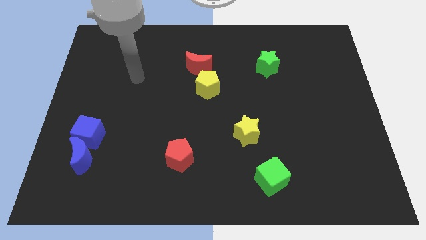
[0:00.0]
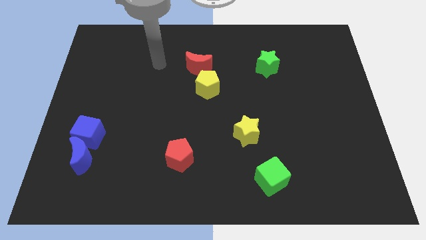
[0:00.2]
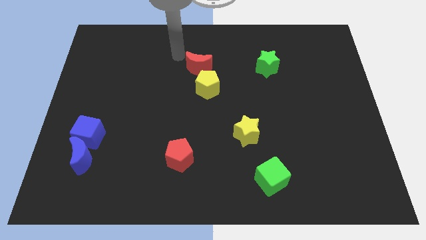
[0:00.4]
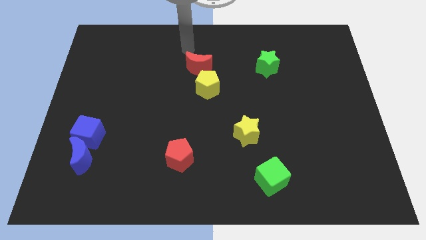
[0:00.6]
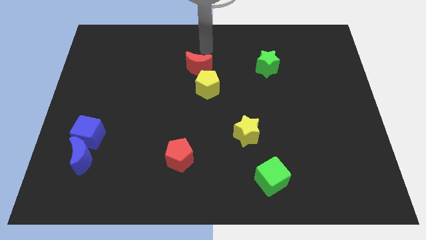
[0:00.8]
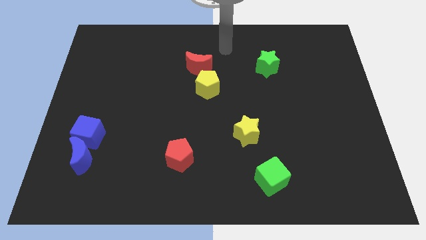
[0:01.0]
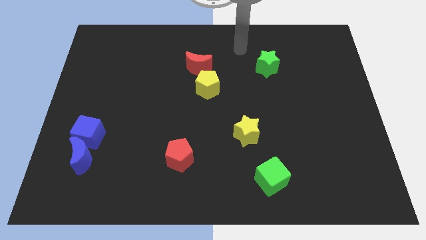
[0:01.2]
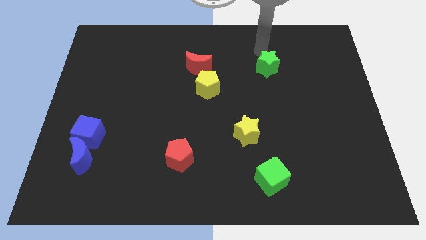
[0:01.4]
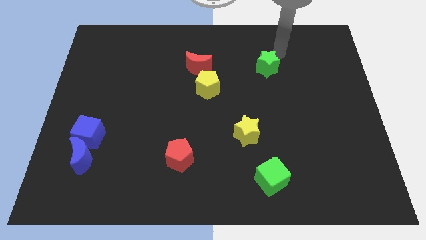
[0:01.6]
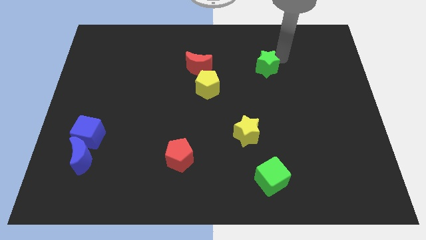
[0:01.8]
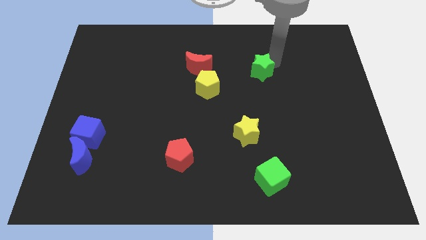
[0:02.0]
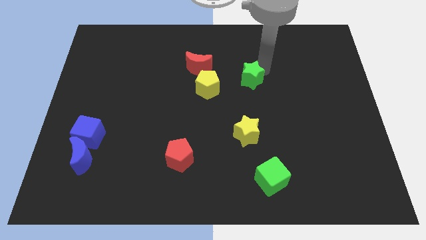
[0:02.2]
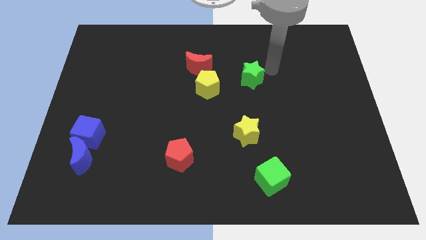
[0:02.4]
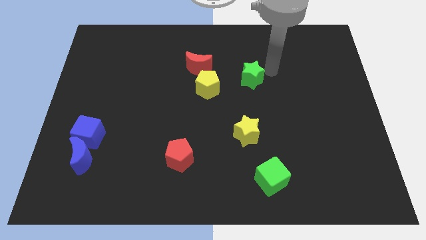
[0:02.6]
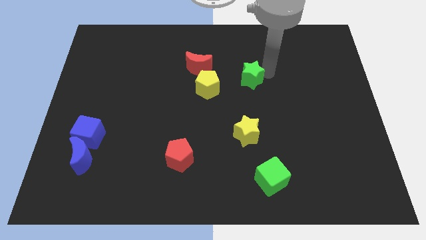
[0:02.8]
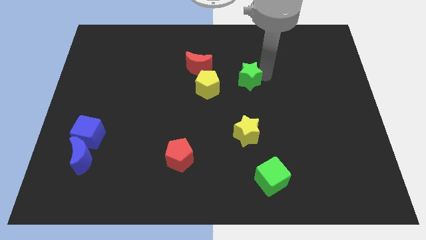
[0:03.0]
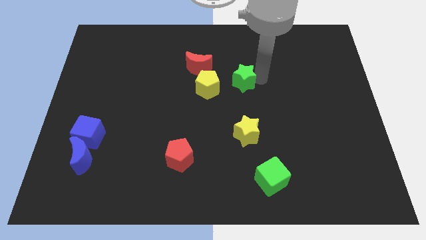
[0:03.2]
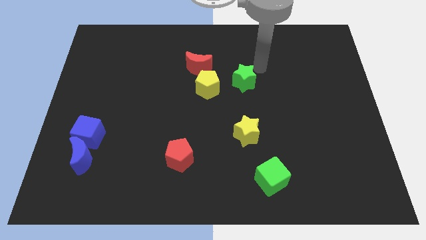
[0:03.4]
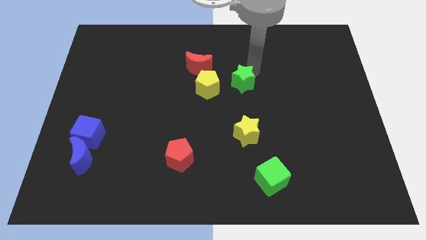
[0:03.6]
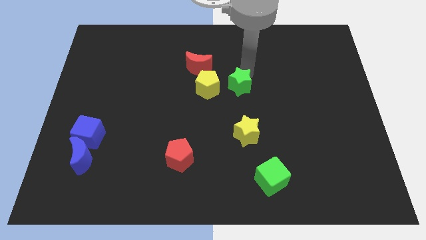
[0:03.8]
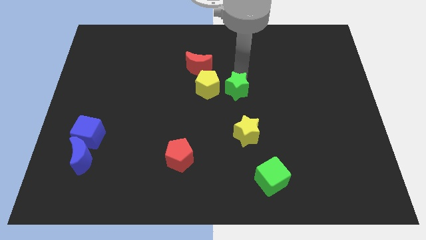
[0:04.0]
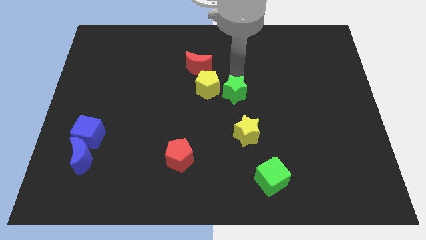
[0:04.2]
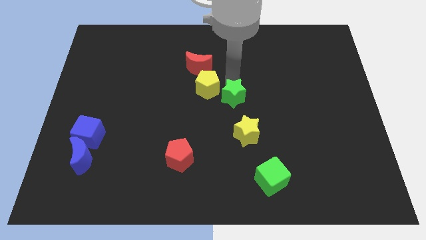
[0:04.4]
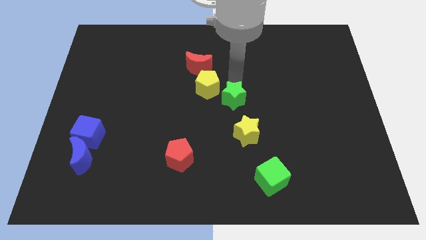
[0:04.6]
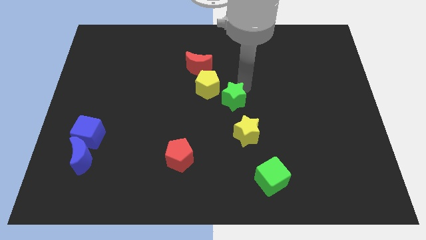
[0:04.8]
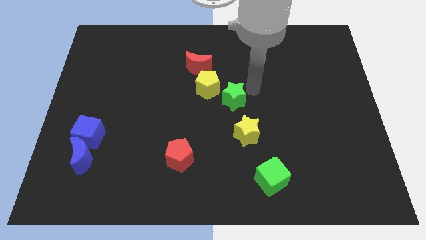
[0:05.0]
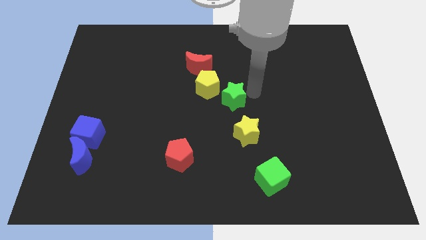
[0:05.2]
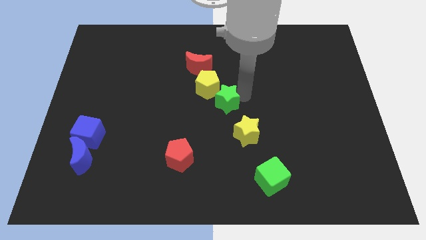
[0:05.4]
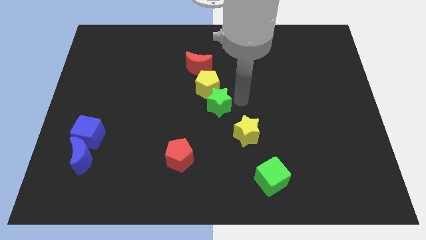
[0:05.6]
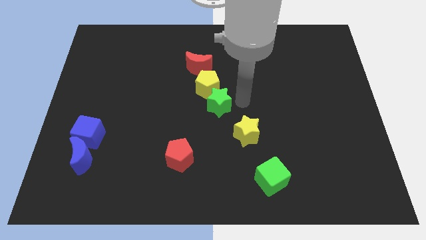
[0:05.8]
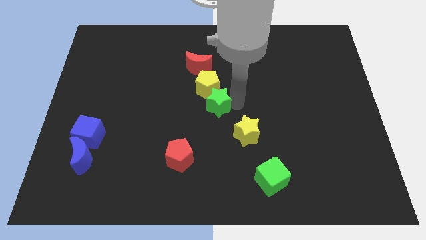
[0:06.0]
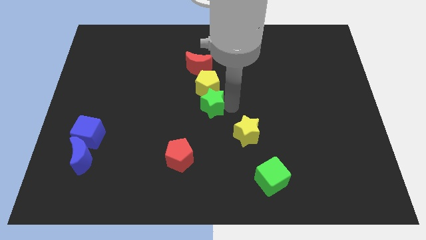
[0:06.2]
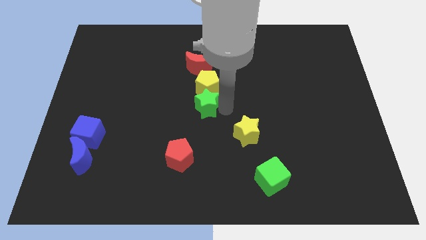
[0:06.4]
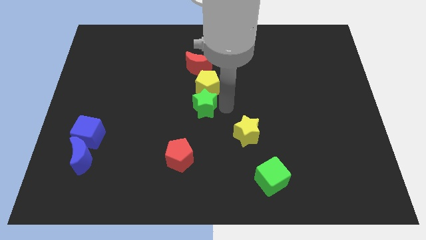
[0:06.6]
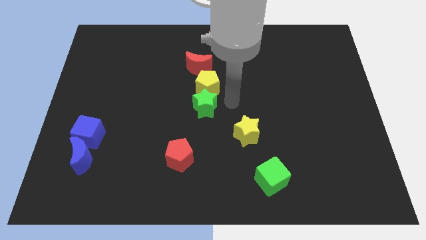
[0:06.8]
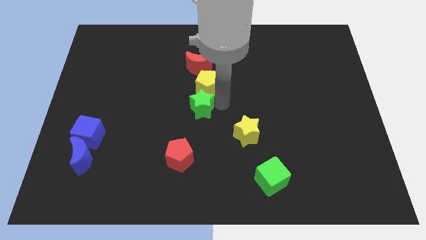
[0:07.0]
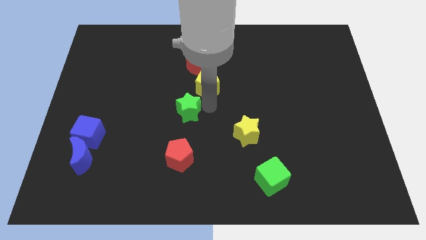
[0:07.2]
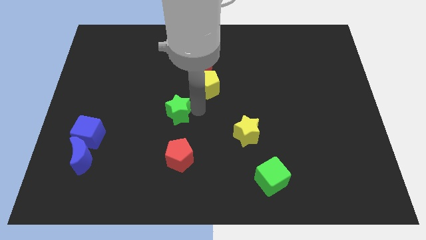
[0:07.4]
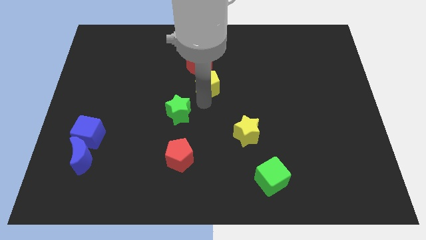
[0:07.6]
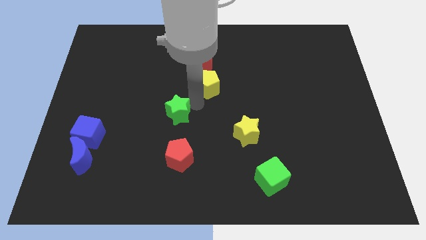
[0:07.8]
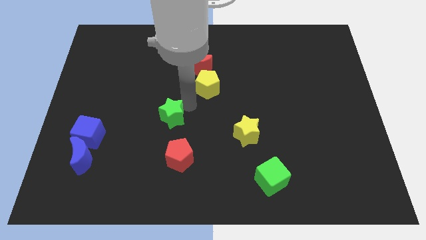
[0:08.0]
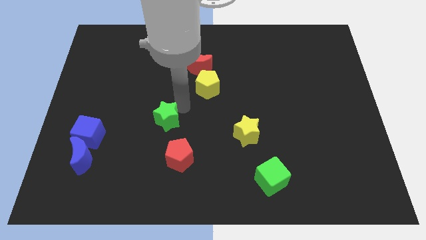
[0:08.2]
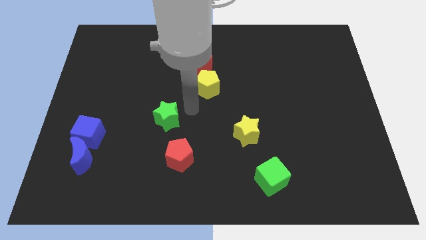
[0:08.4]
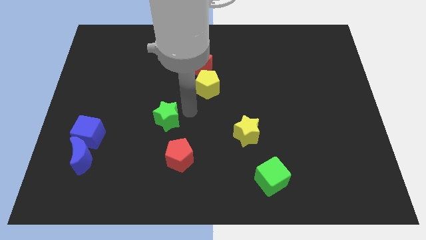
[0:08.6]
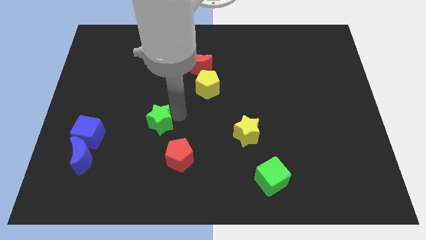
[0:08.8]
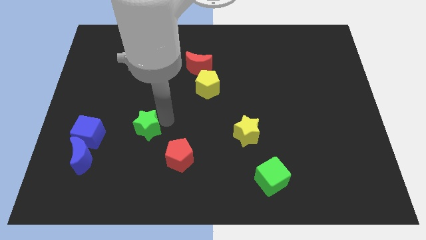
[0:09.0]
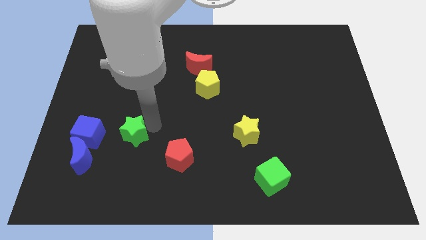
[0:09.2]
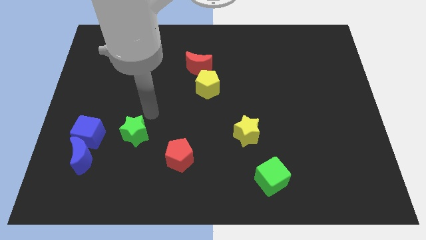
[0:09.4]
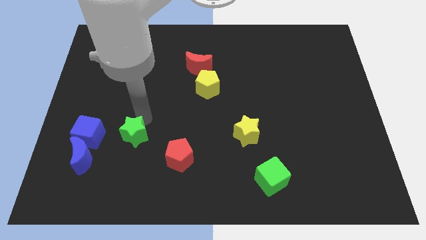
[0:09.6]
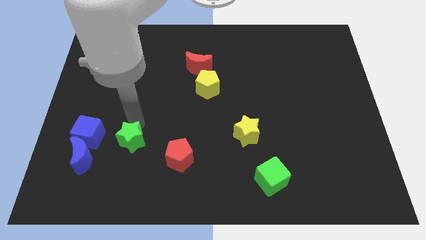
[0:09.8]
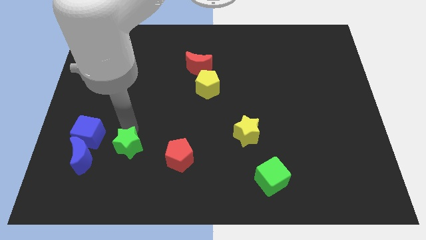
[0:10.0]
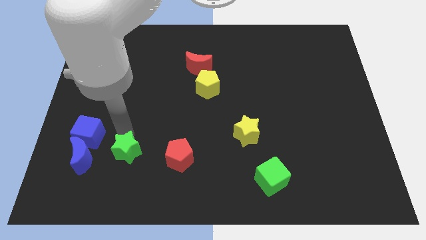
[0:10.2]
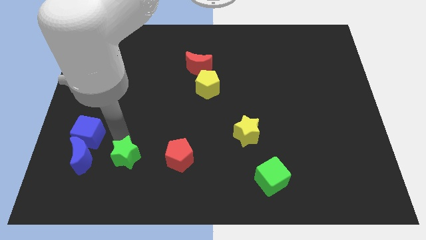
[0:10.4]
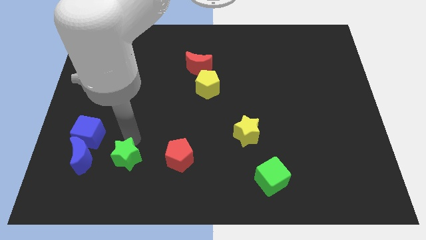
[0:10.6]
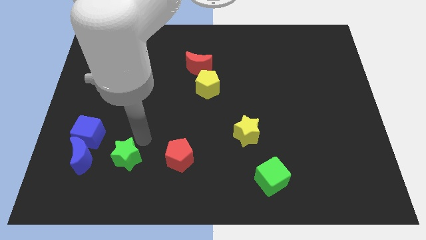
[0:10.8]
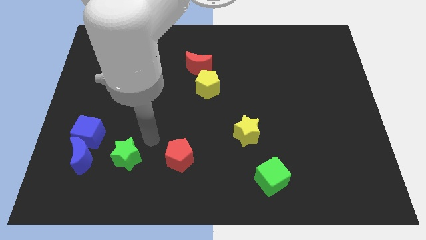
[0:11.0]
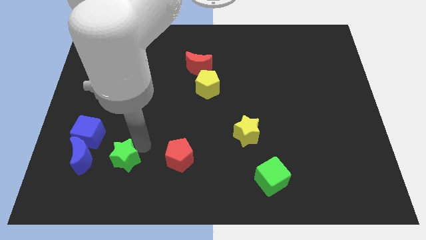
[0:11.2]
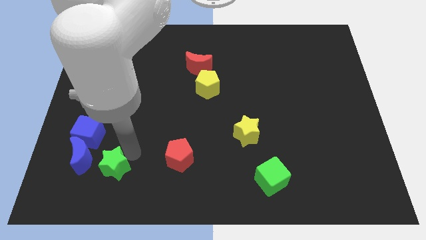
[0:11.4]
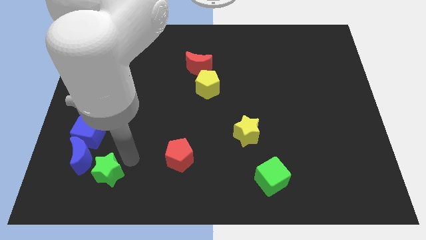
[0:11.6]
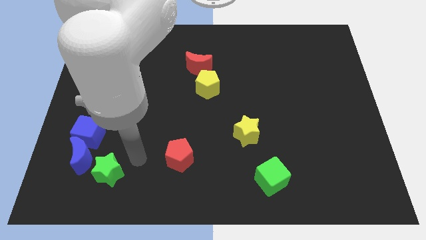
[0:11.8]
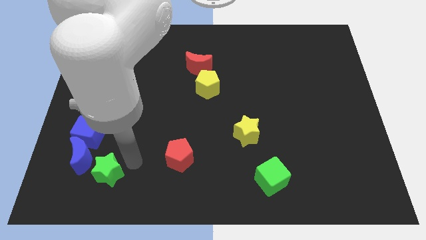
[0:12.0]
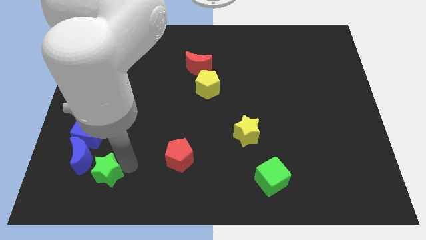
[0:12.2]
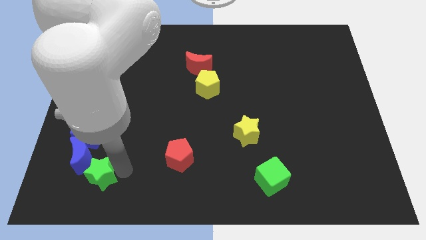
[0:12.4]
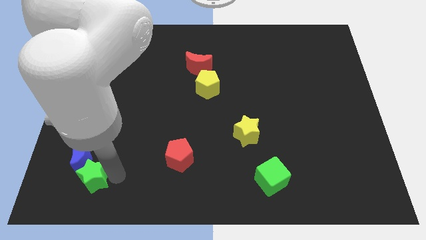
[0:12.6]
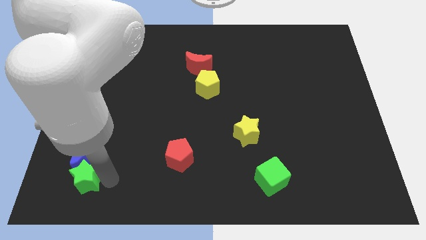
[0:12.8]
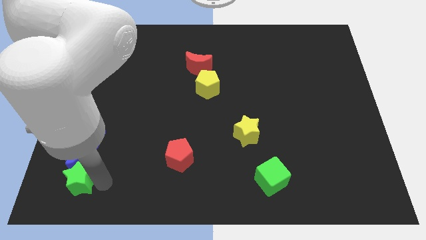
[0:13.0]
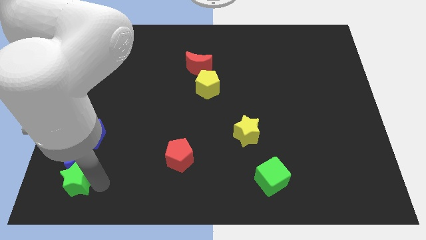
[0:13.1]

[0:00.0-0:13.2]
move the green star to the bottom left corner
